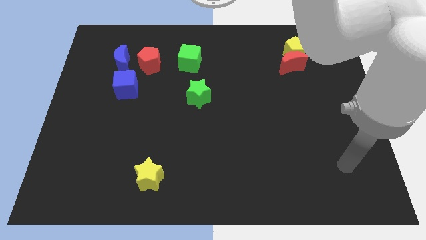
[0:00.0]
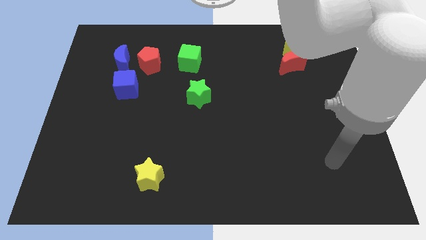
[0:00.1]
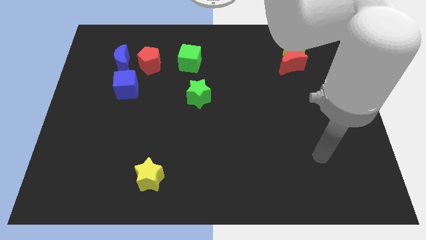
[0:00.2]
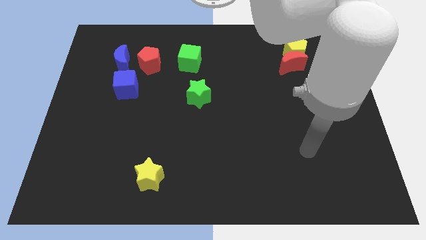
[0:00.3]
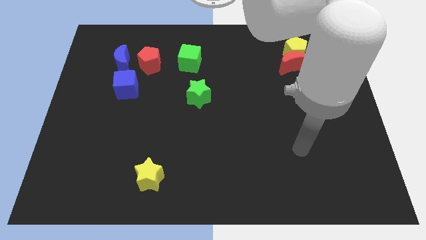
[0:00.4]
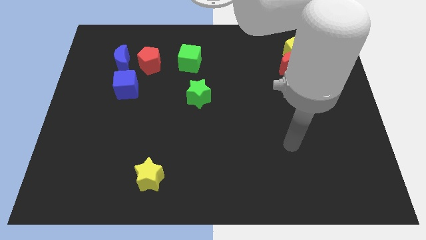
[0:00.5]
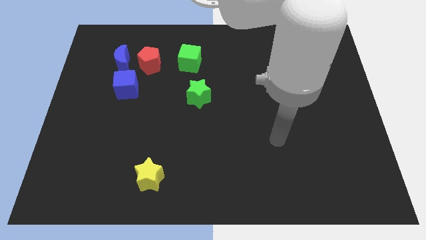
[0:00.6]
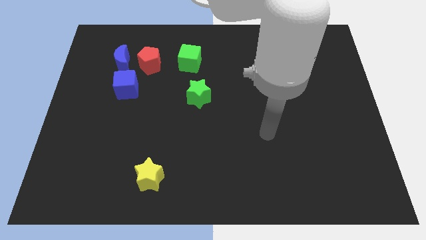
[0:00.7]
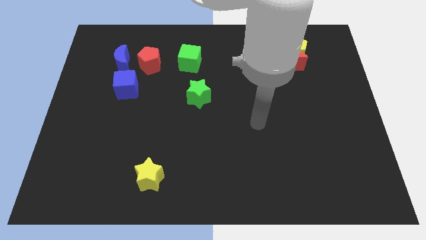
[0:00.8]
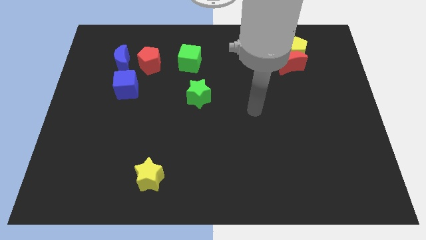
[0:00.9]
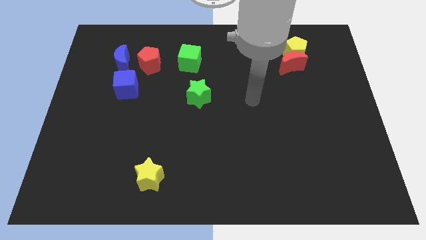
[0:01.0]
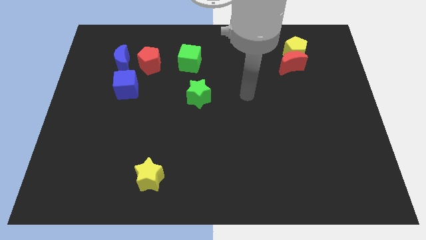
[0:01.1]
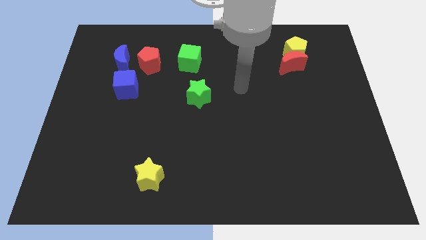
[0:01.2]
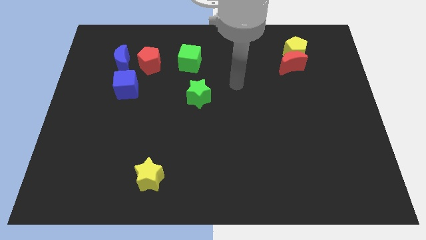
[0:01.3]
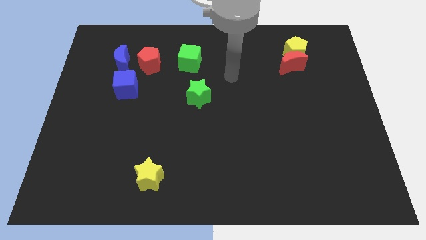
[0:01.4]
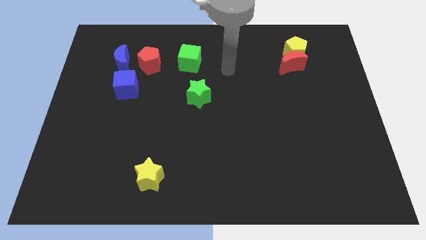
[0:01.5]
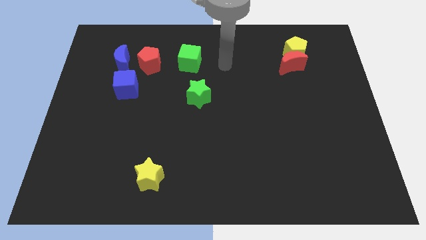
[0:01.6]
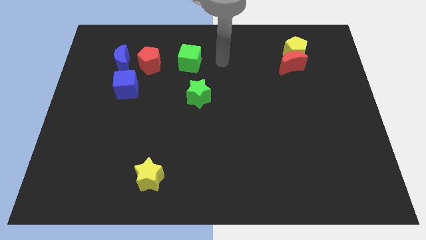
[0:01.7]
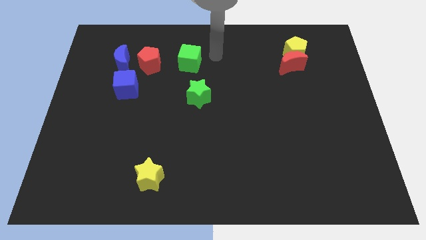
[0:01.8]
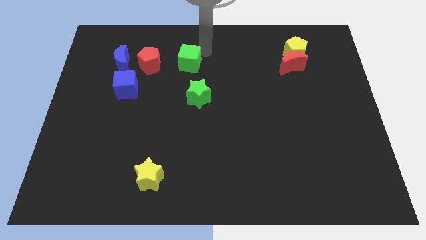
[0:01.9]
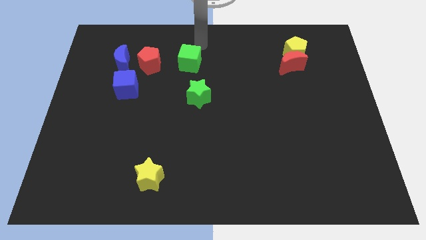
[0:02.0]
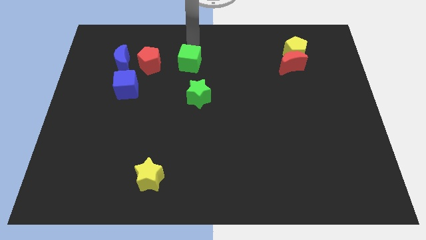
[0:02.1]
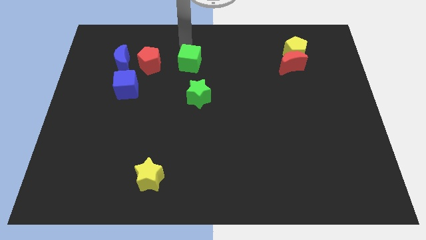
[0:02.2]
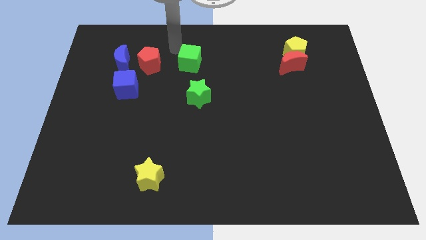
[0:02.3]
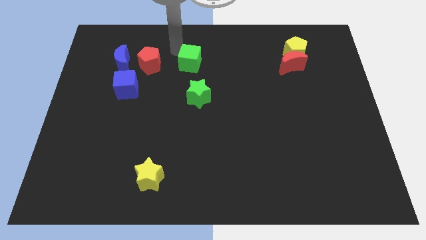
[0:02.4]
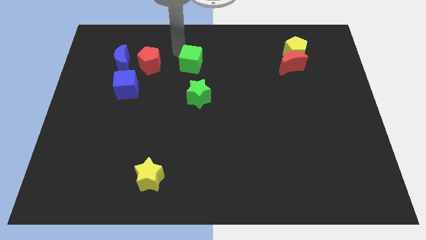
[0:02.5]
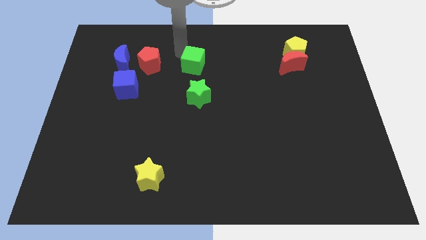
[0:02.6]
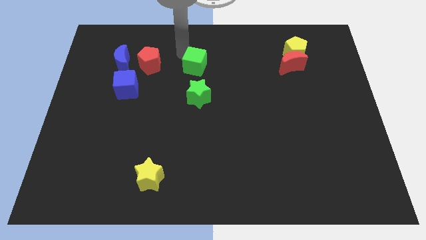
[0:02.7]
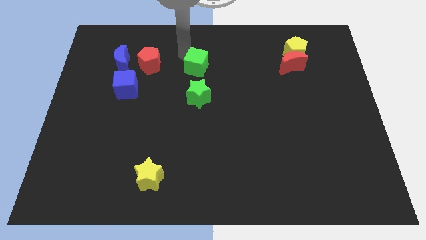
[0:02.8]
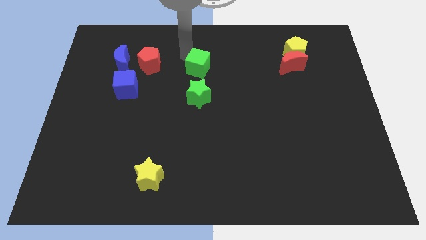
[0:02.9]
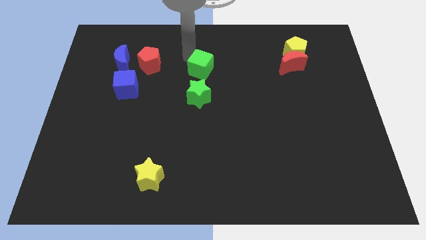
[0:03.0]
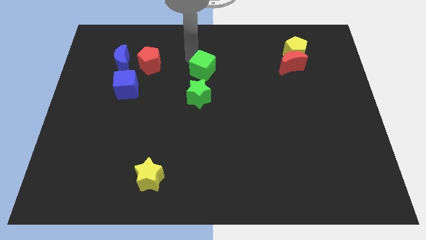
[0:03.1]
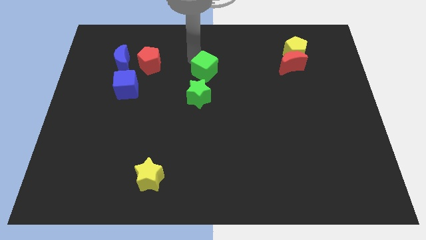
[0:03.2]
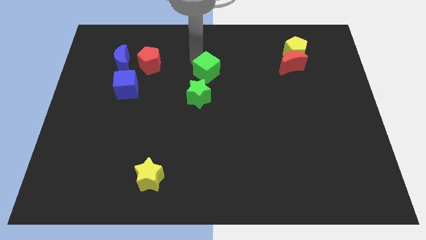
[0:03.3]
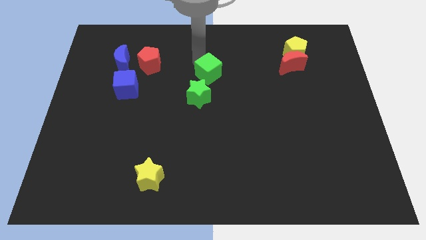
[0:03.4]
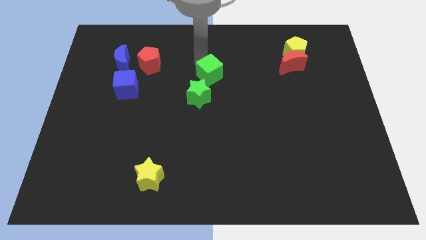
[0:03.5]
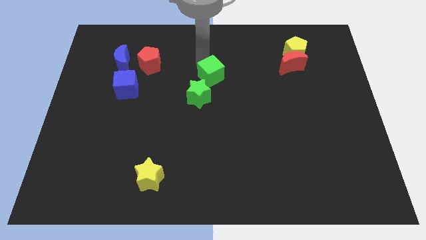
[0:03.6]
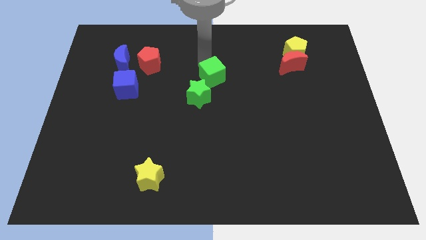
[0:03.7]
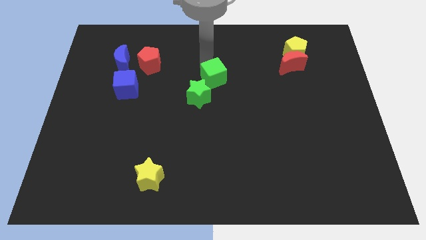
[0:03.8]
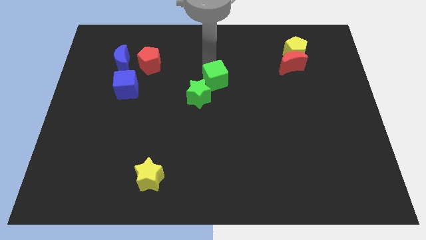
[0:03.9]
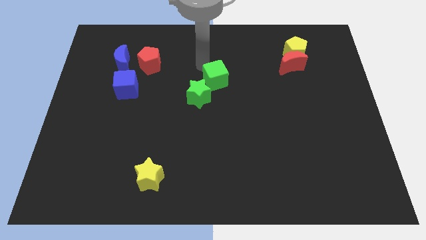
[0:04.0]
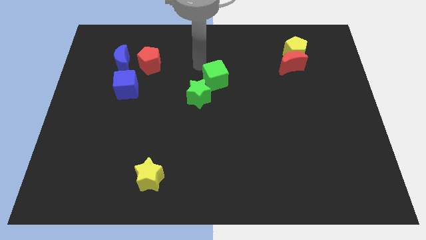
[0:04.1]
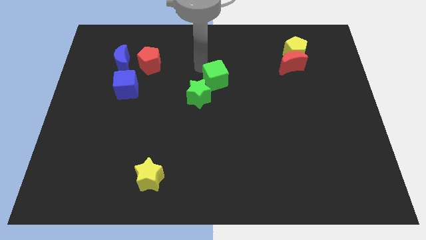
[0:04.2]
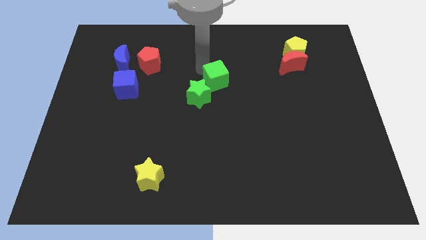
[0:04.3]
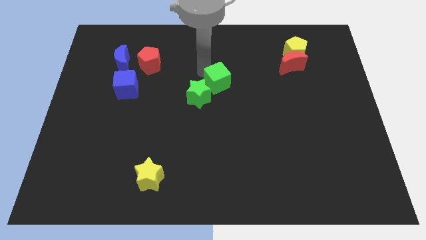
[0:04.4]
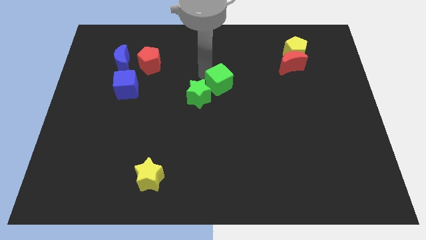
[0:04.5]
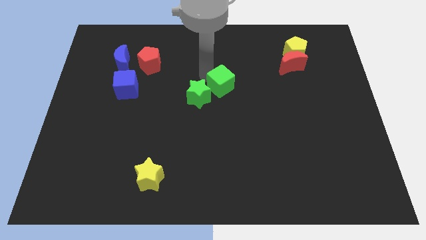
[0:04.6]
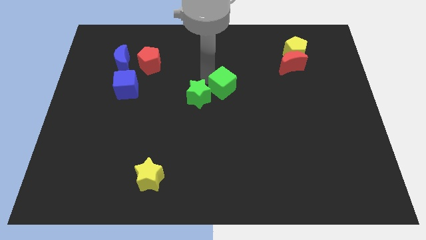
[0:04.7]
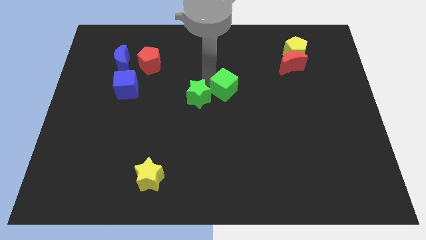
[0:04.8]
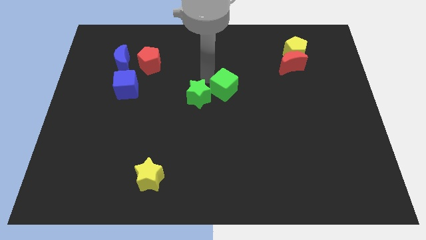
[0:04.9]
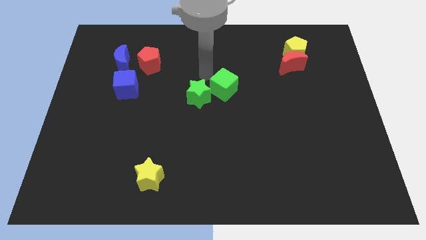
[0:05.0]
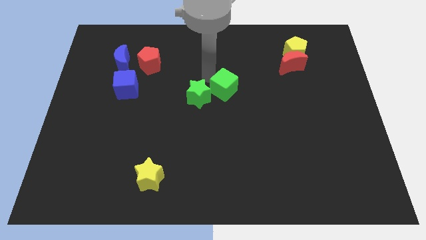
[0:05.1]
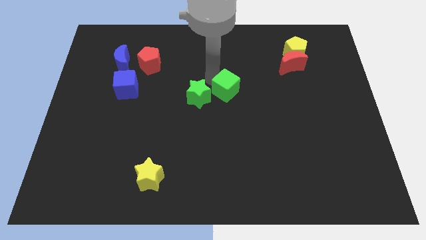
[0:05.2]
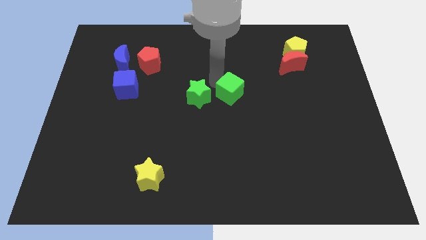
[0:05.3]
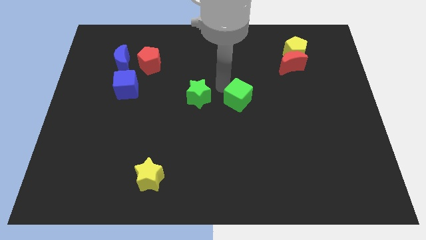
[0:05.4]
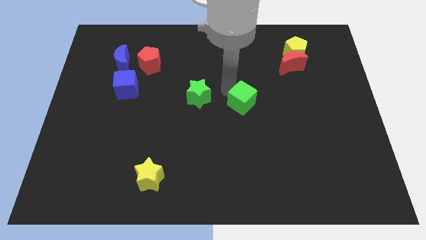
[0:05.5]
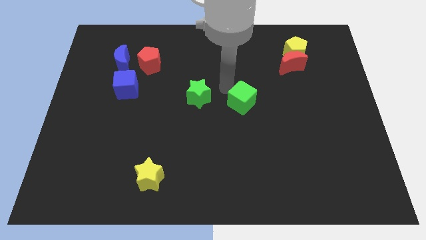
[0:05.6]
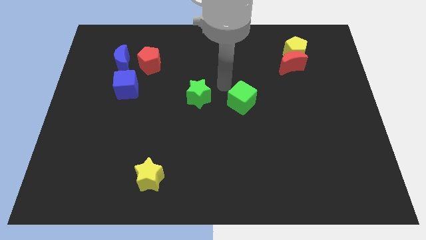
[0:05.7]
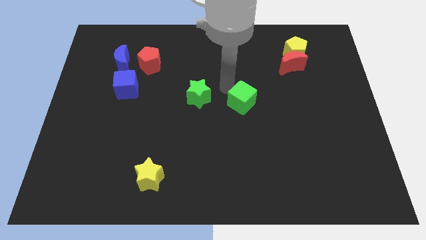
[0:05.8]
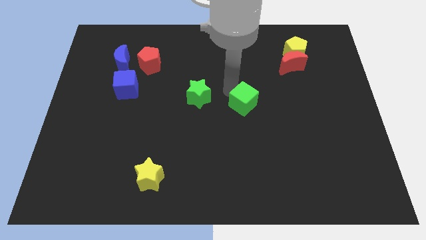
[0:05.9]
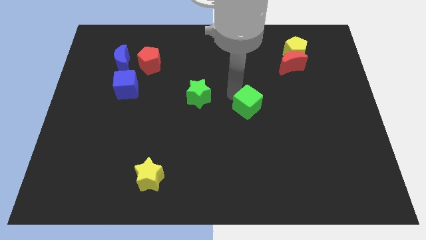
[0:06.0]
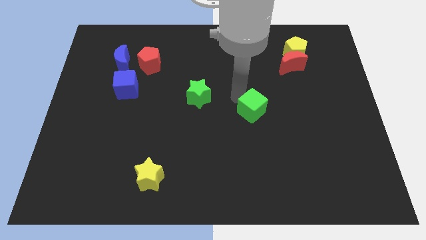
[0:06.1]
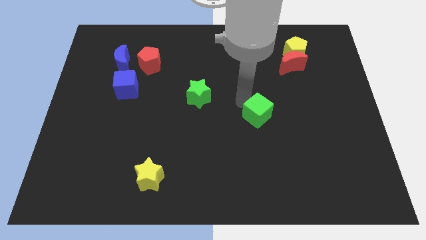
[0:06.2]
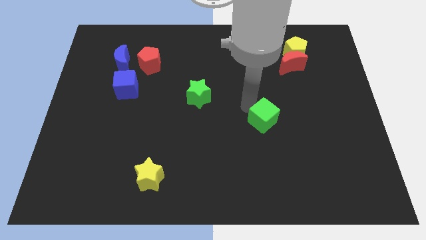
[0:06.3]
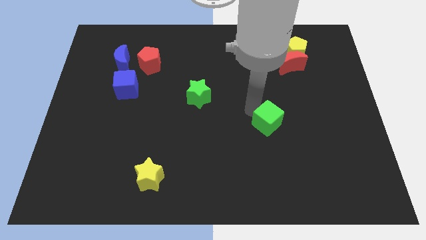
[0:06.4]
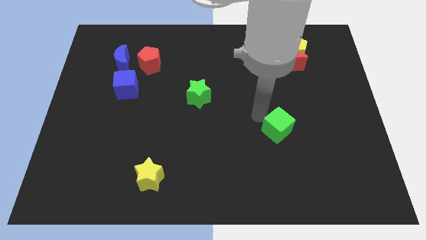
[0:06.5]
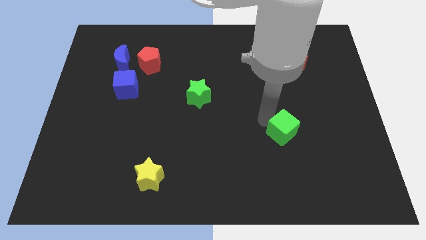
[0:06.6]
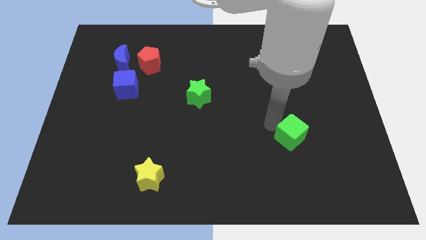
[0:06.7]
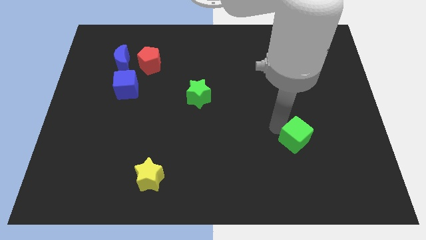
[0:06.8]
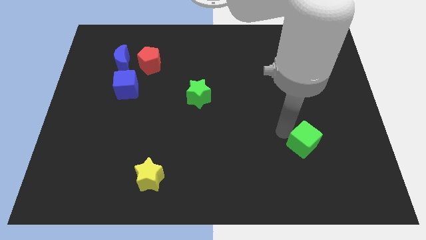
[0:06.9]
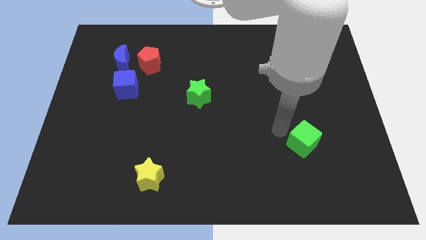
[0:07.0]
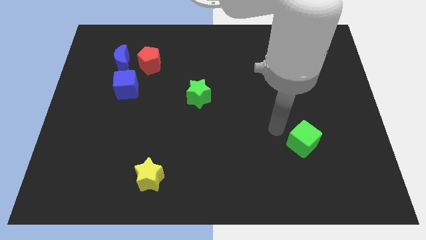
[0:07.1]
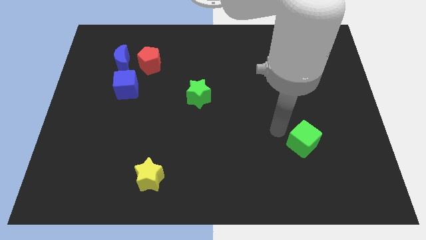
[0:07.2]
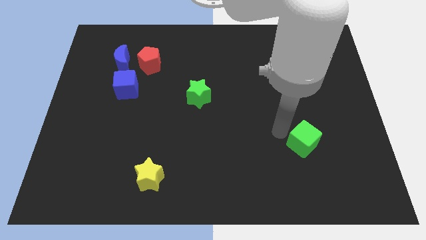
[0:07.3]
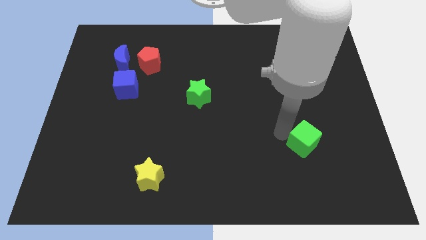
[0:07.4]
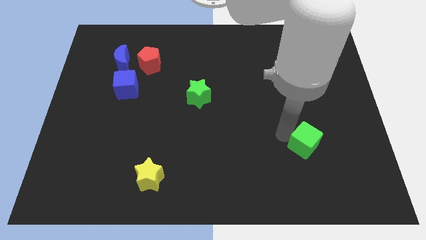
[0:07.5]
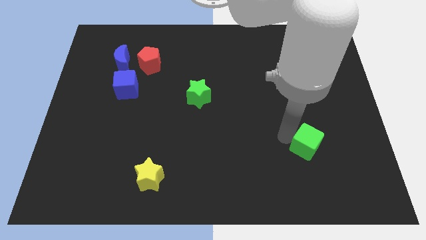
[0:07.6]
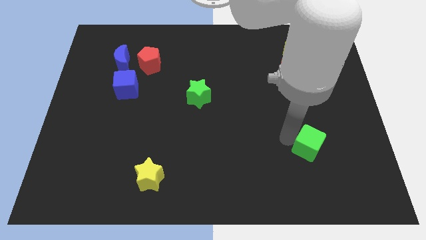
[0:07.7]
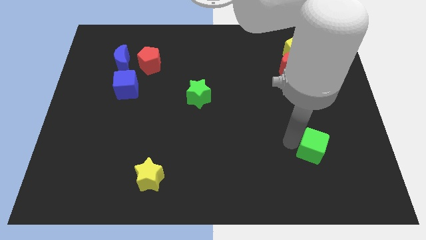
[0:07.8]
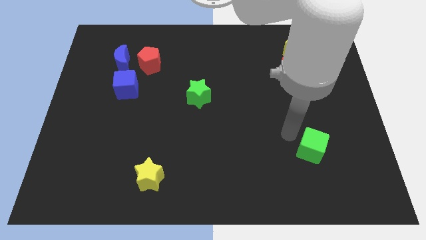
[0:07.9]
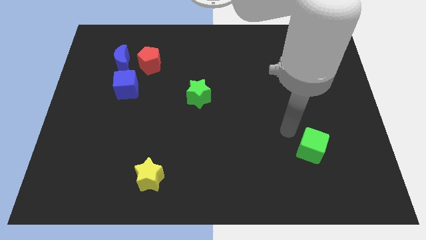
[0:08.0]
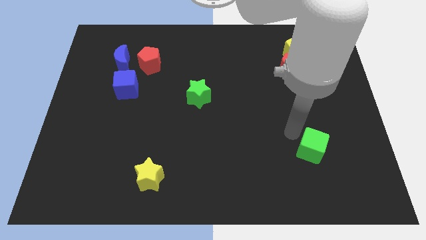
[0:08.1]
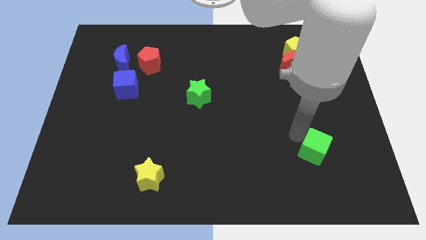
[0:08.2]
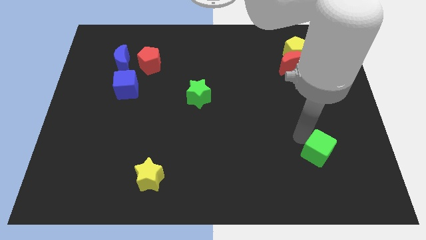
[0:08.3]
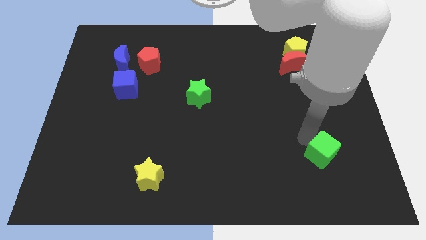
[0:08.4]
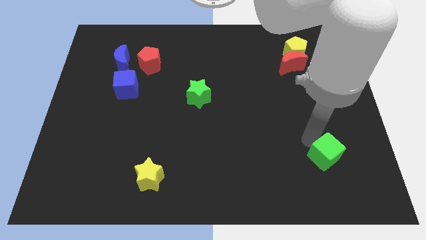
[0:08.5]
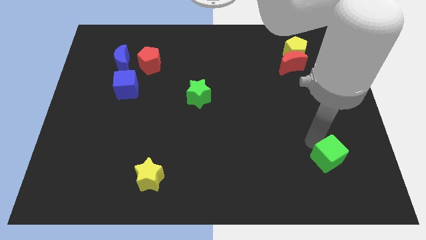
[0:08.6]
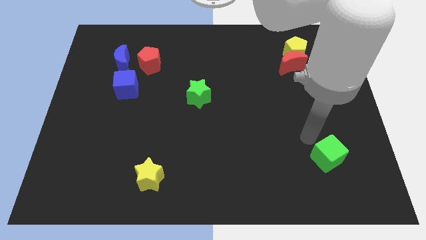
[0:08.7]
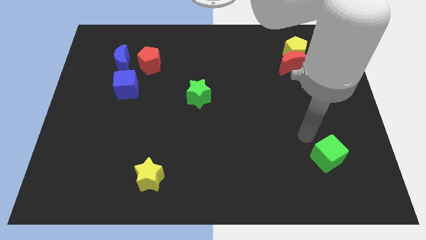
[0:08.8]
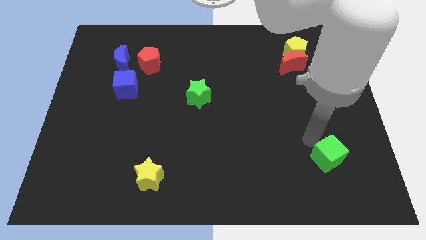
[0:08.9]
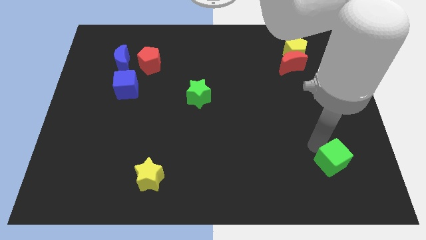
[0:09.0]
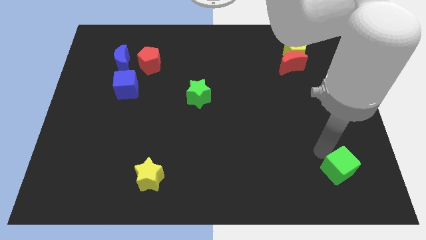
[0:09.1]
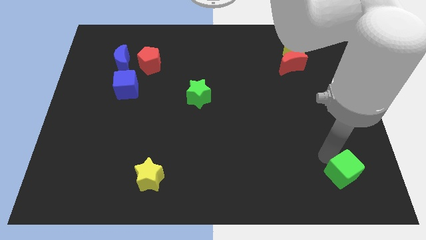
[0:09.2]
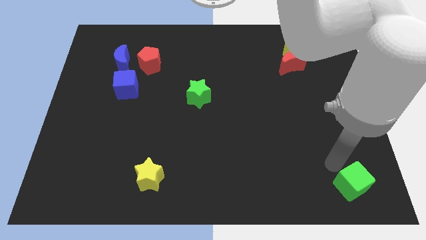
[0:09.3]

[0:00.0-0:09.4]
put the green cube to the lower right corner
